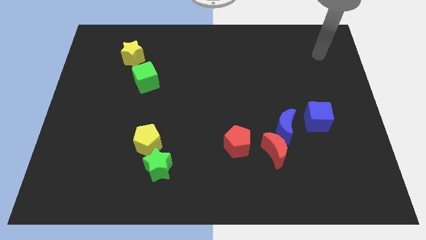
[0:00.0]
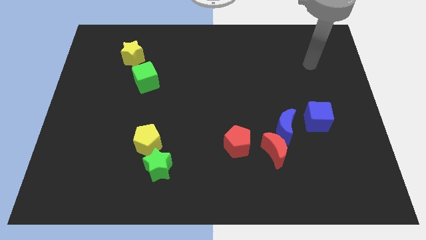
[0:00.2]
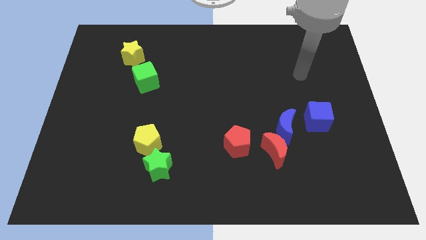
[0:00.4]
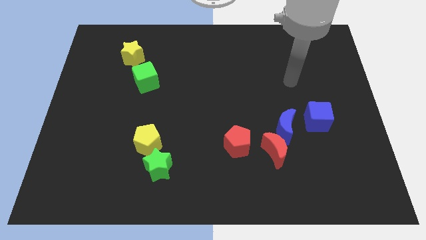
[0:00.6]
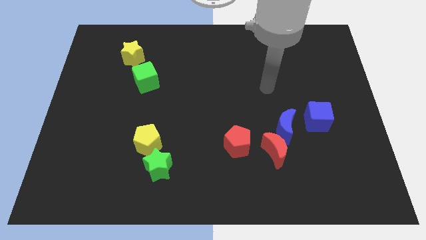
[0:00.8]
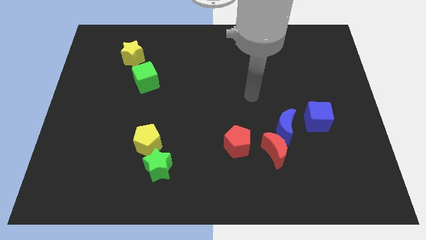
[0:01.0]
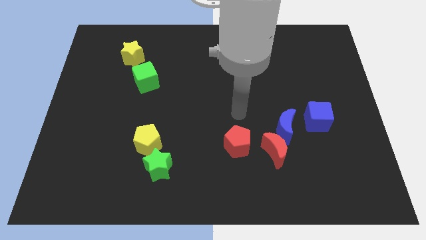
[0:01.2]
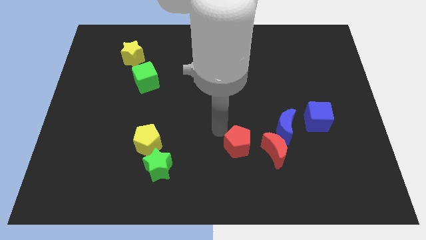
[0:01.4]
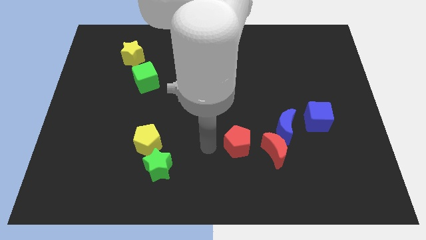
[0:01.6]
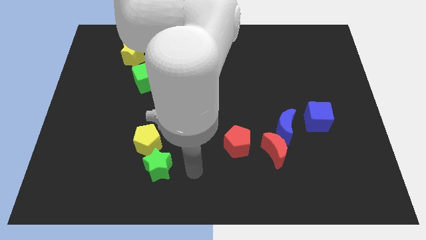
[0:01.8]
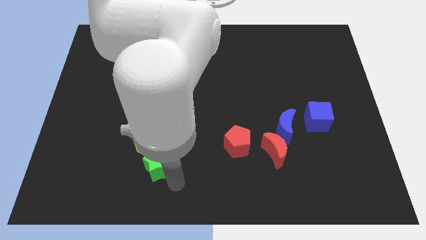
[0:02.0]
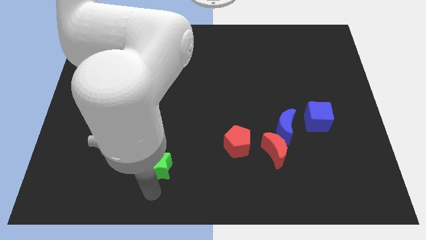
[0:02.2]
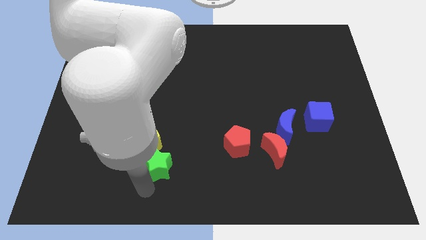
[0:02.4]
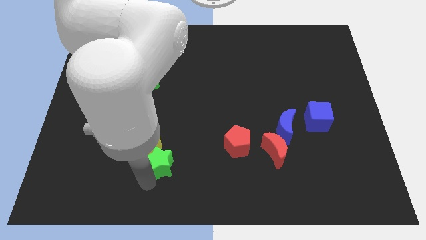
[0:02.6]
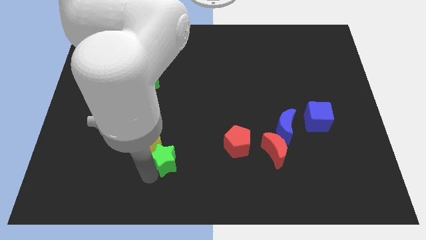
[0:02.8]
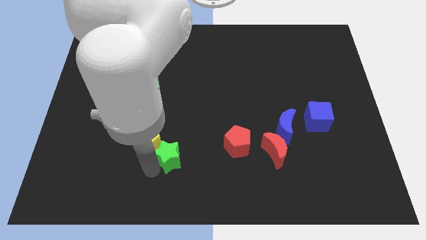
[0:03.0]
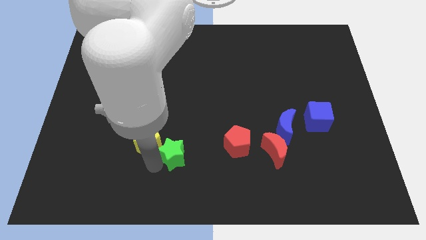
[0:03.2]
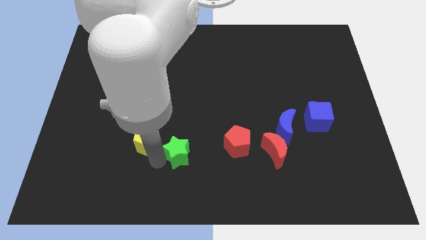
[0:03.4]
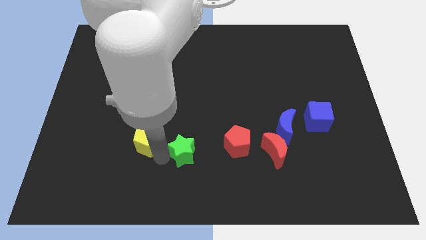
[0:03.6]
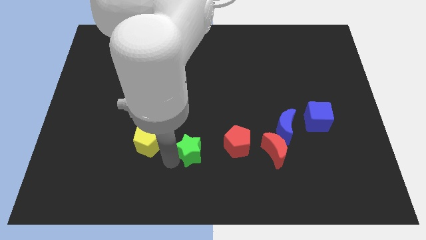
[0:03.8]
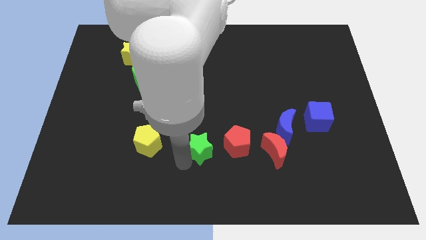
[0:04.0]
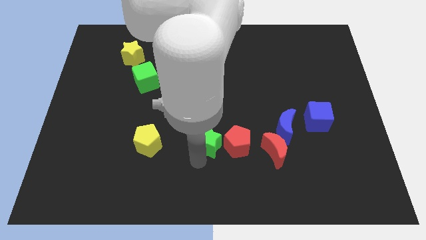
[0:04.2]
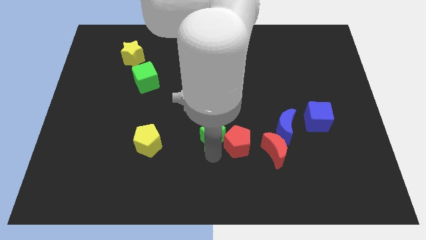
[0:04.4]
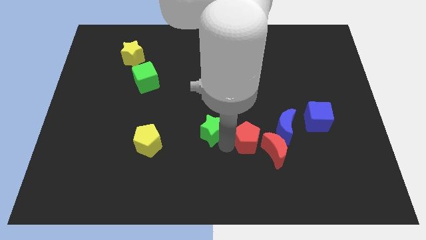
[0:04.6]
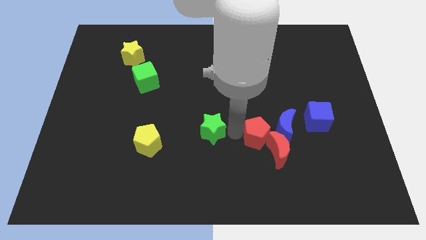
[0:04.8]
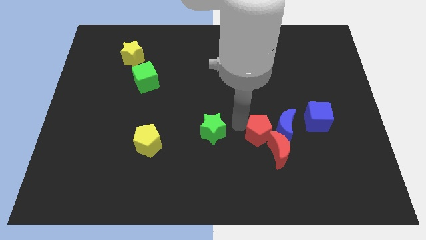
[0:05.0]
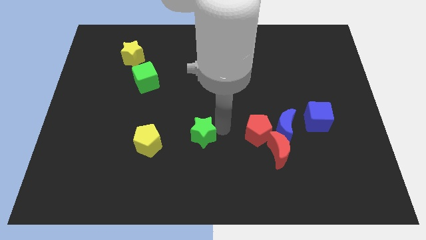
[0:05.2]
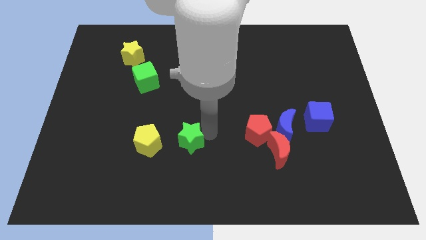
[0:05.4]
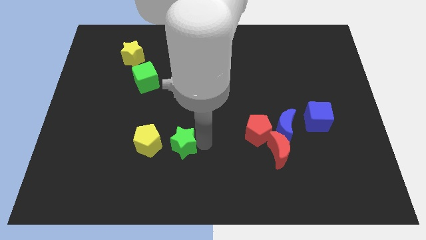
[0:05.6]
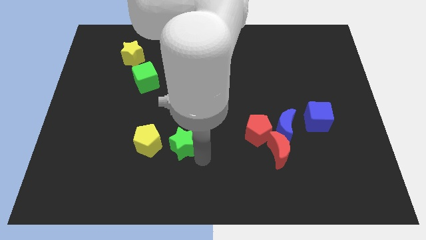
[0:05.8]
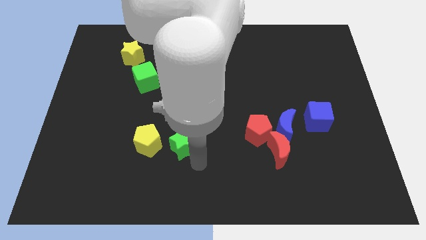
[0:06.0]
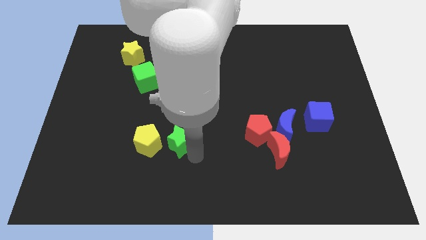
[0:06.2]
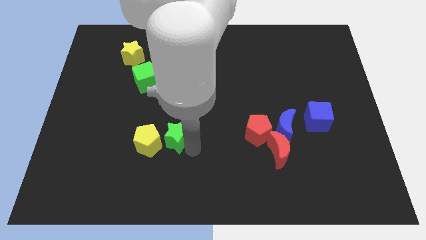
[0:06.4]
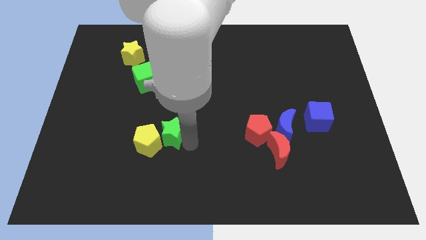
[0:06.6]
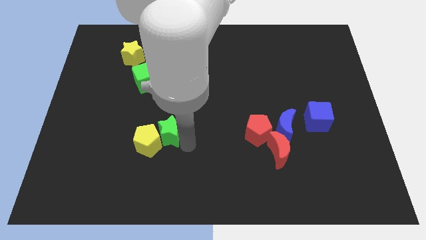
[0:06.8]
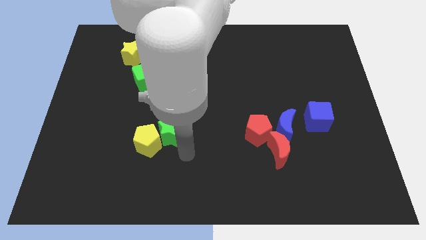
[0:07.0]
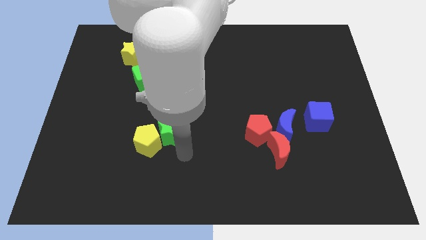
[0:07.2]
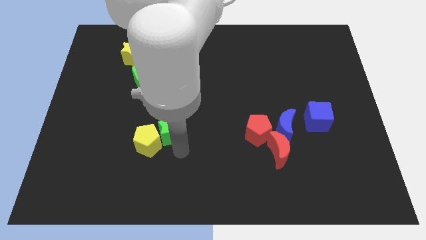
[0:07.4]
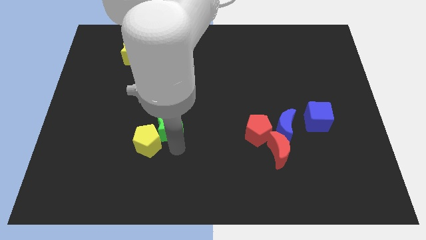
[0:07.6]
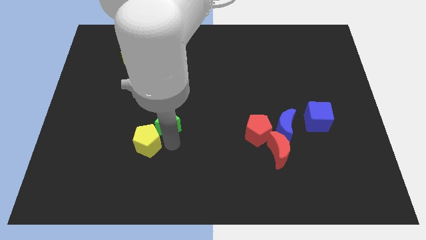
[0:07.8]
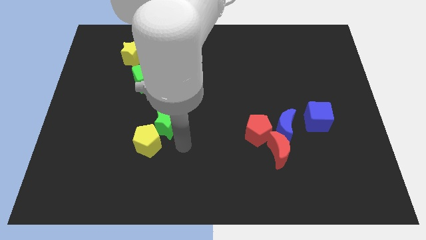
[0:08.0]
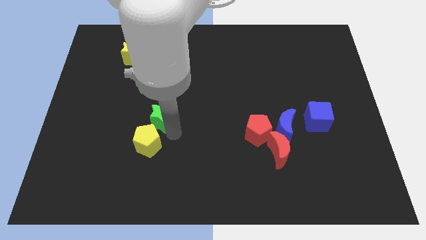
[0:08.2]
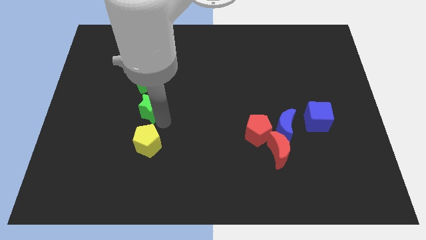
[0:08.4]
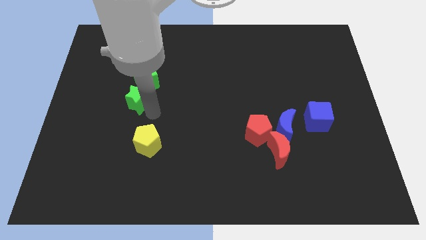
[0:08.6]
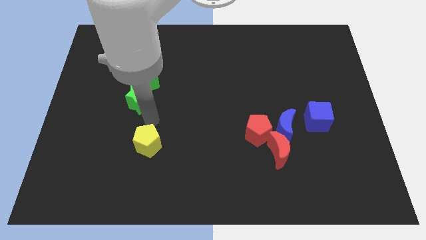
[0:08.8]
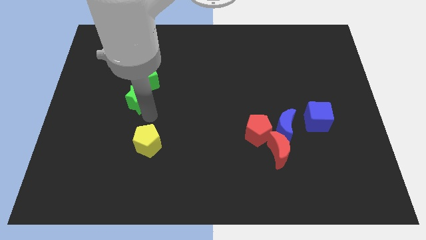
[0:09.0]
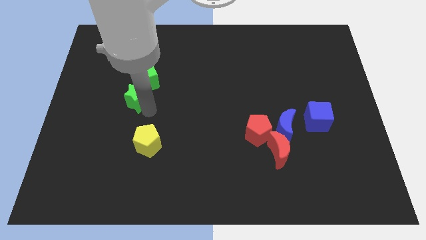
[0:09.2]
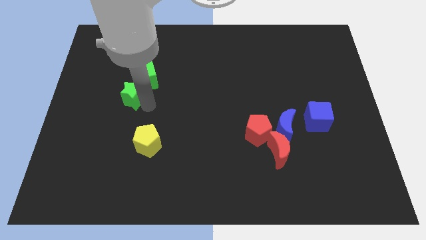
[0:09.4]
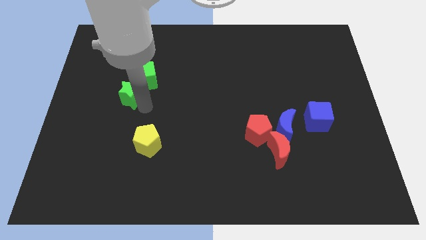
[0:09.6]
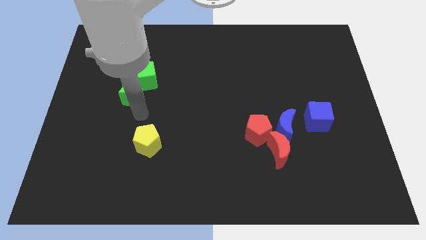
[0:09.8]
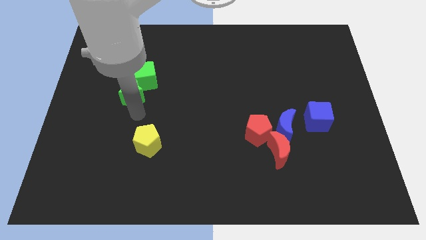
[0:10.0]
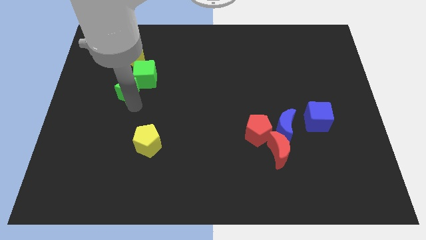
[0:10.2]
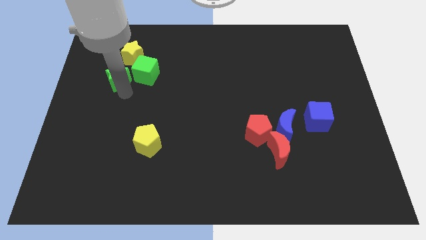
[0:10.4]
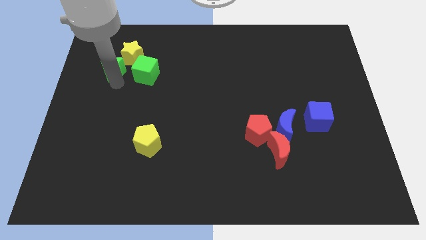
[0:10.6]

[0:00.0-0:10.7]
slide the green star to the yellow star

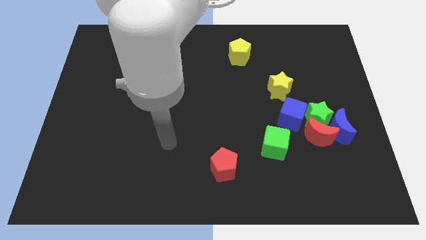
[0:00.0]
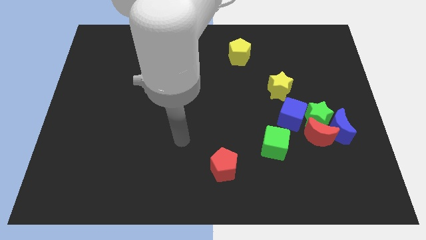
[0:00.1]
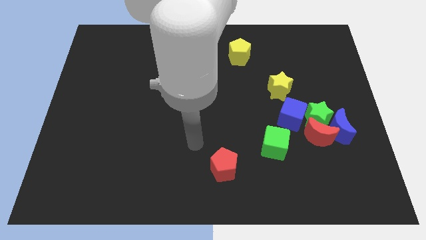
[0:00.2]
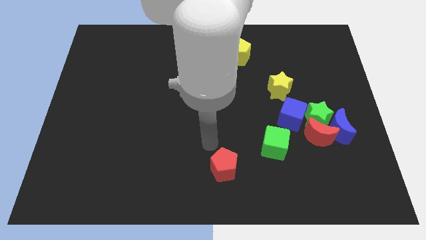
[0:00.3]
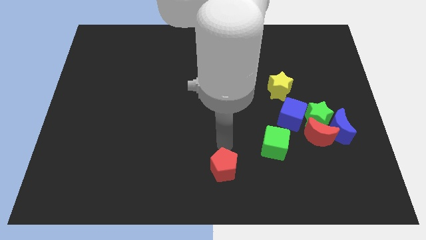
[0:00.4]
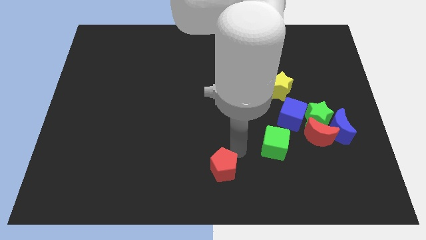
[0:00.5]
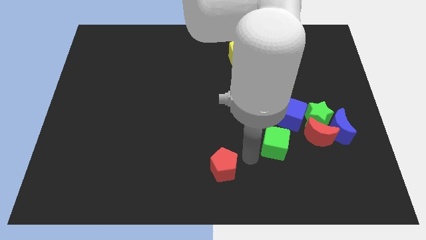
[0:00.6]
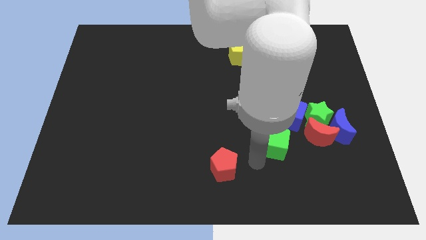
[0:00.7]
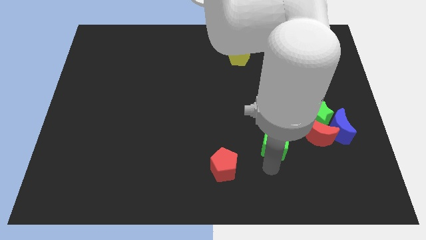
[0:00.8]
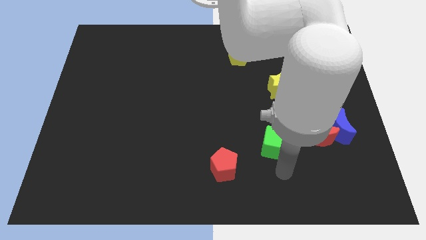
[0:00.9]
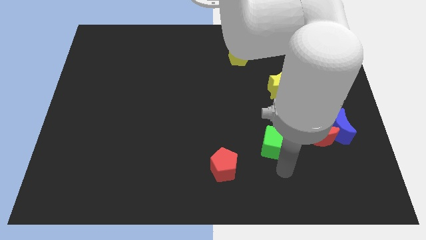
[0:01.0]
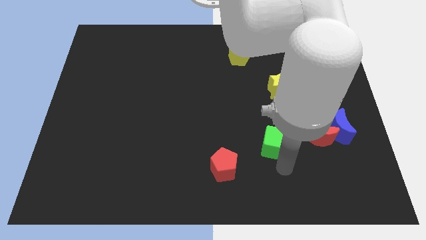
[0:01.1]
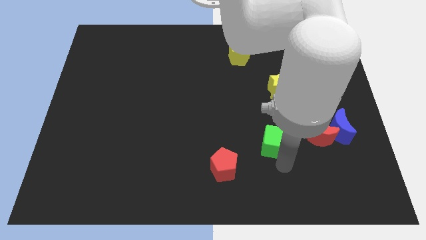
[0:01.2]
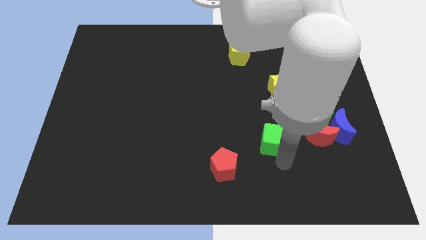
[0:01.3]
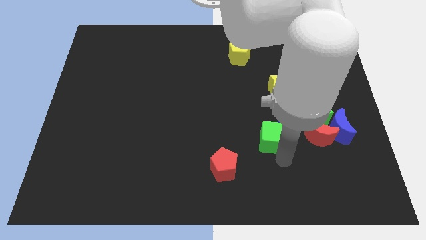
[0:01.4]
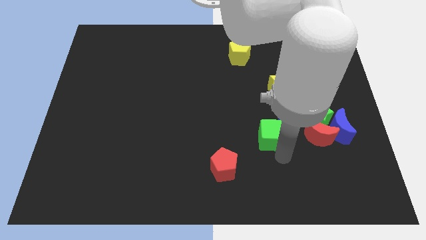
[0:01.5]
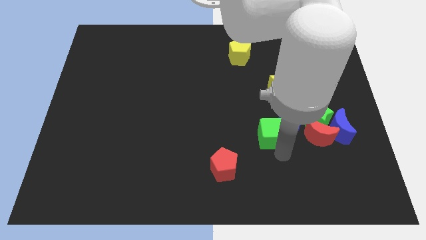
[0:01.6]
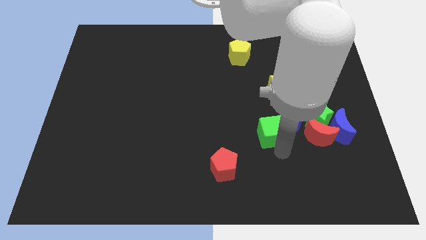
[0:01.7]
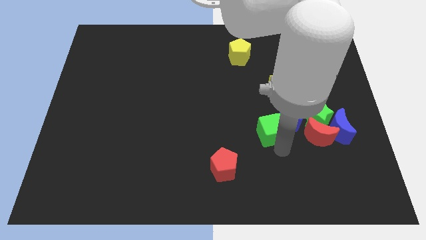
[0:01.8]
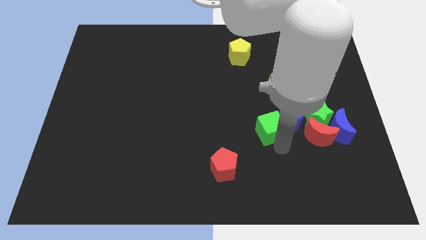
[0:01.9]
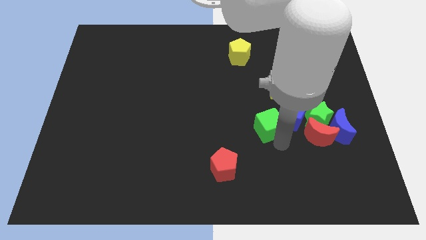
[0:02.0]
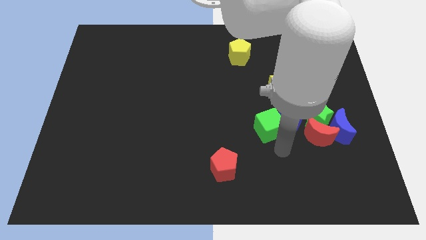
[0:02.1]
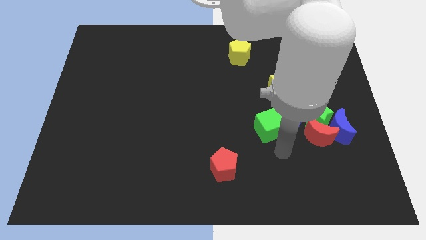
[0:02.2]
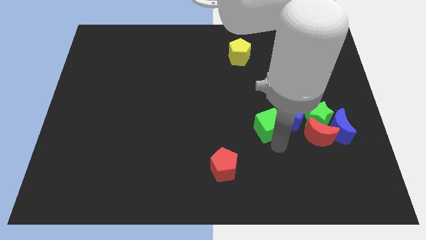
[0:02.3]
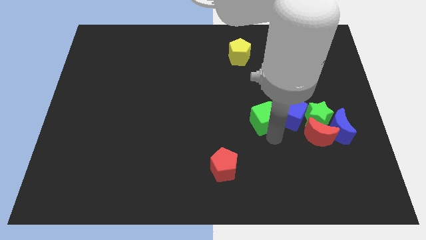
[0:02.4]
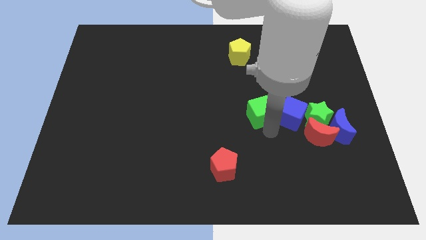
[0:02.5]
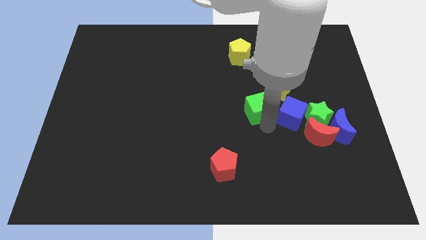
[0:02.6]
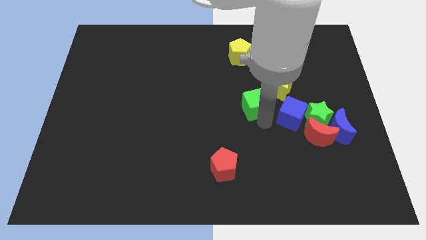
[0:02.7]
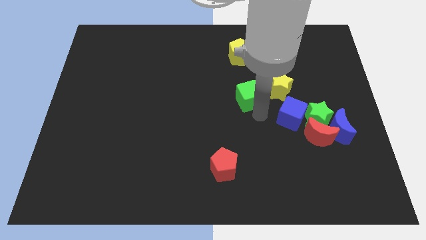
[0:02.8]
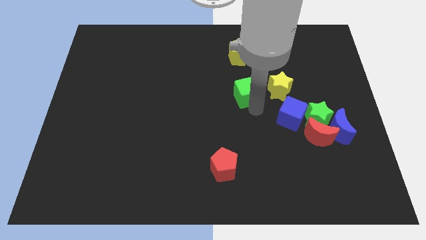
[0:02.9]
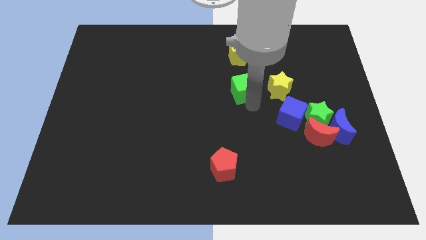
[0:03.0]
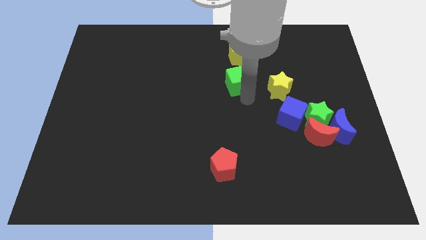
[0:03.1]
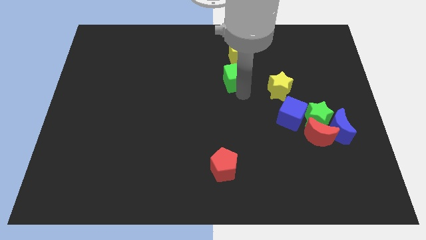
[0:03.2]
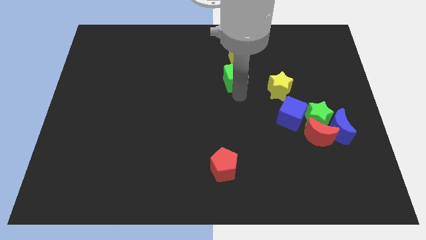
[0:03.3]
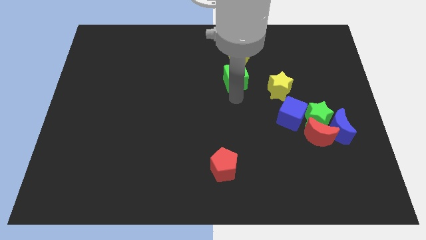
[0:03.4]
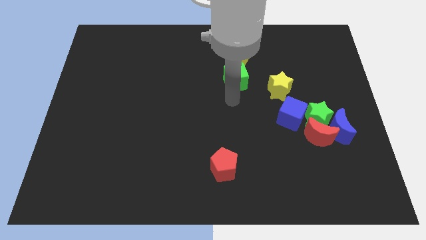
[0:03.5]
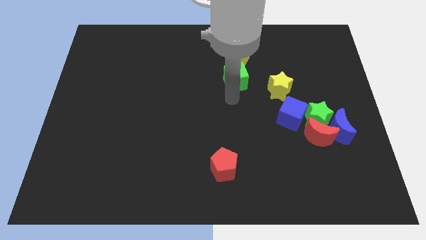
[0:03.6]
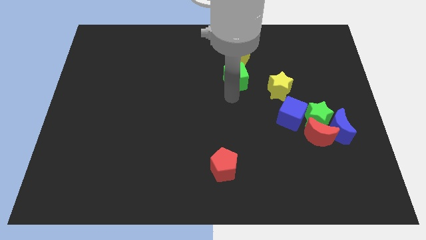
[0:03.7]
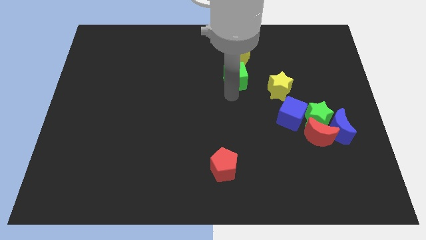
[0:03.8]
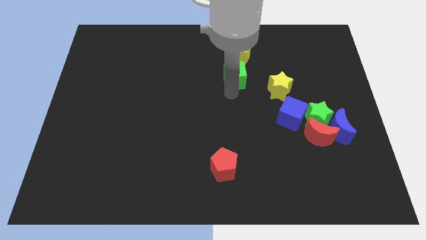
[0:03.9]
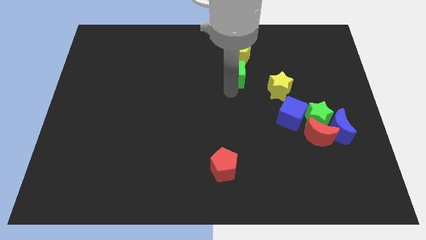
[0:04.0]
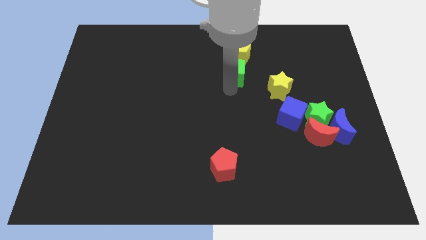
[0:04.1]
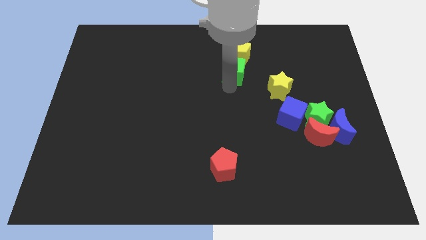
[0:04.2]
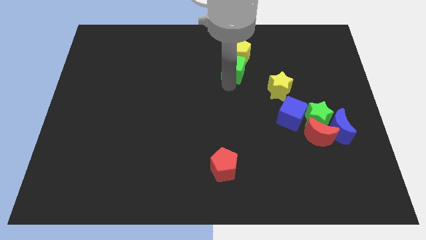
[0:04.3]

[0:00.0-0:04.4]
move the green cube towards the yellow pentagon
